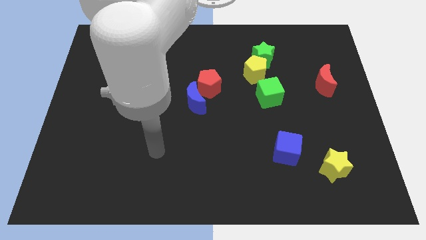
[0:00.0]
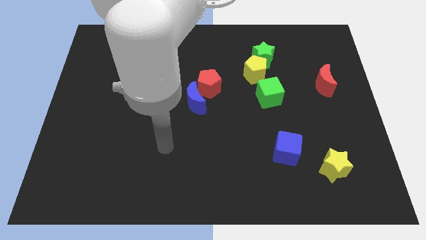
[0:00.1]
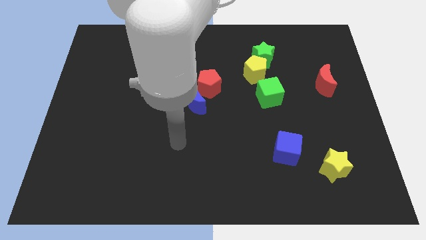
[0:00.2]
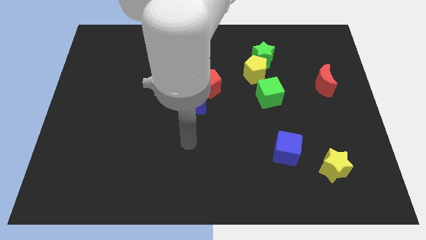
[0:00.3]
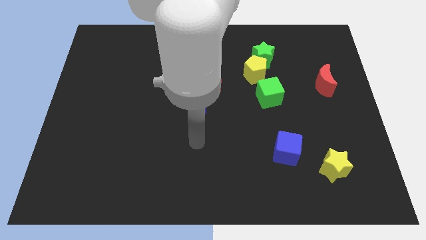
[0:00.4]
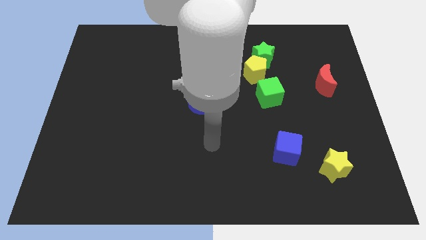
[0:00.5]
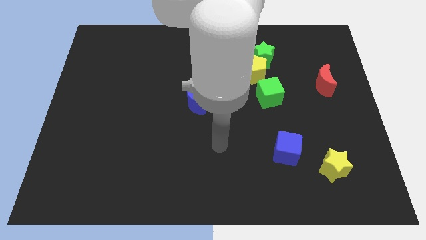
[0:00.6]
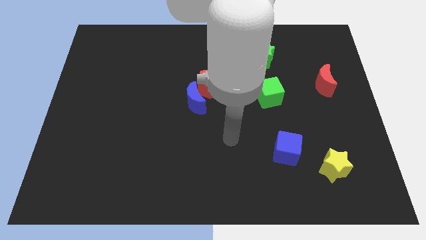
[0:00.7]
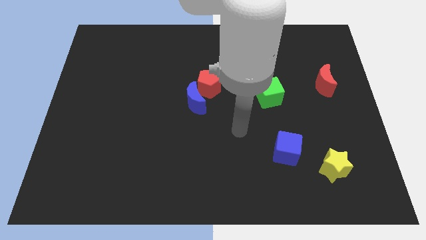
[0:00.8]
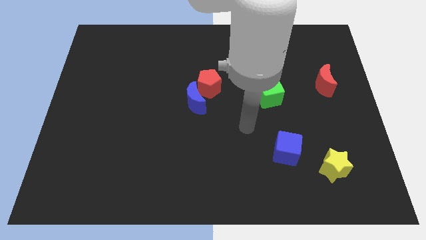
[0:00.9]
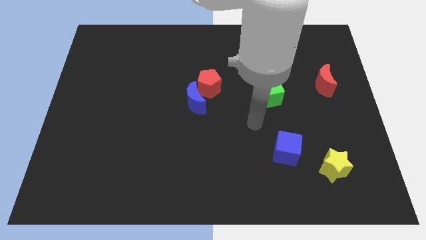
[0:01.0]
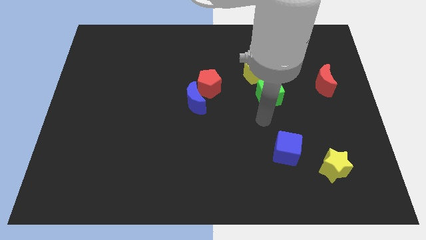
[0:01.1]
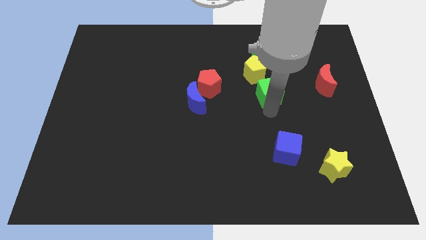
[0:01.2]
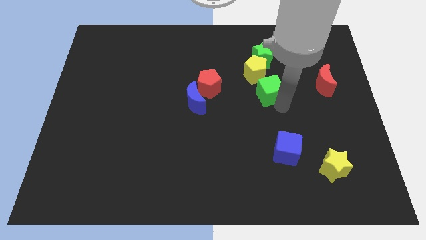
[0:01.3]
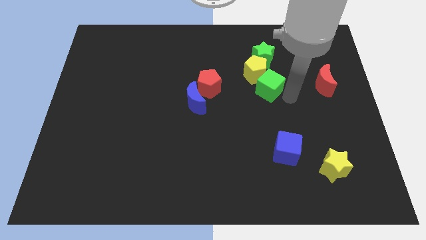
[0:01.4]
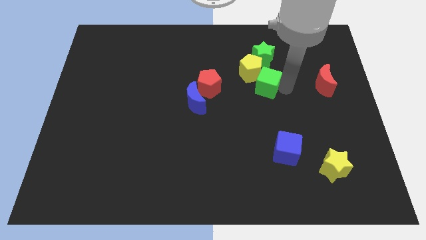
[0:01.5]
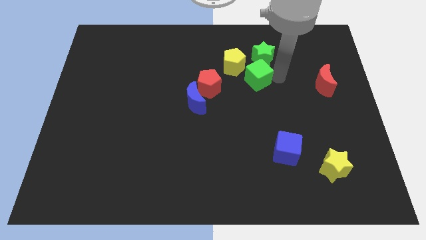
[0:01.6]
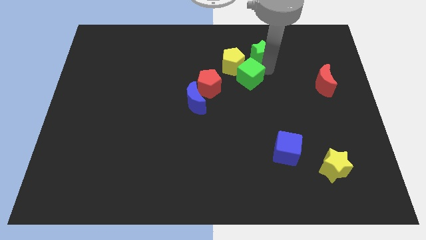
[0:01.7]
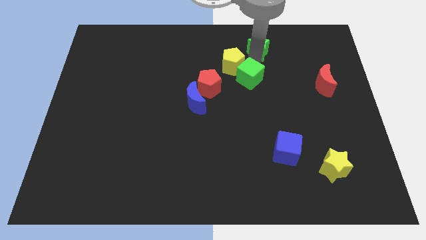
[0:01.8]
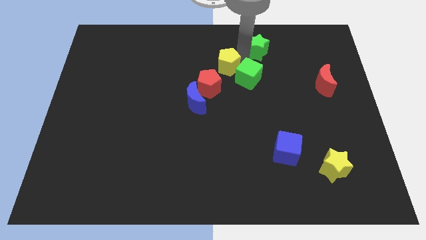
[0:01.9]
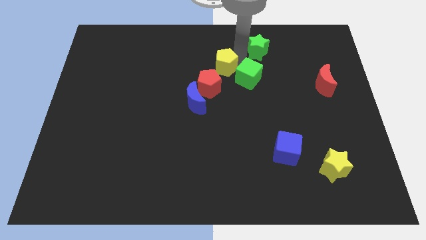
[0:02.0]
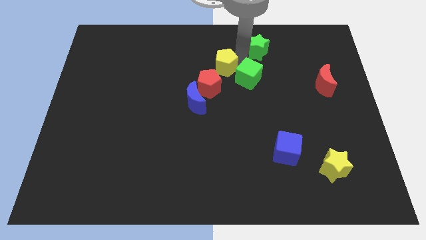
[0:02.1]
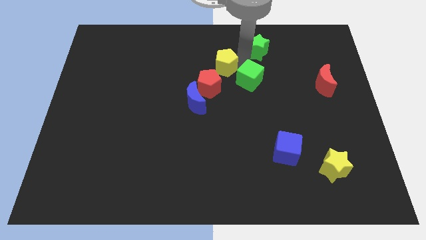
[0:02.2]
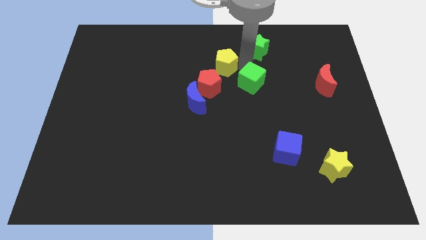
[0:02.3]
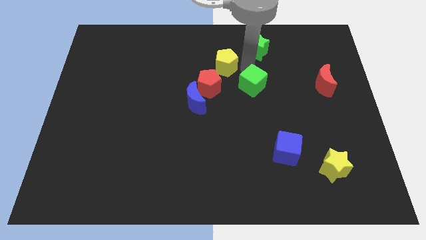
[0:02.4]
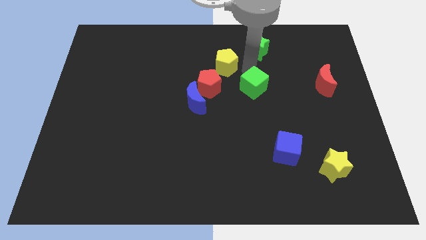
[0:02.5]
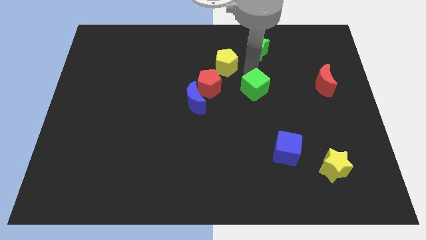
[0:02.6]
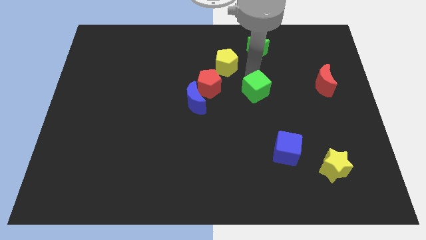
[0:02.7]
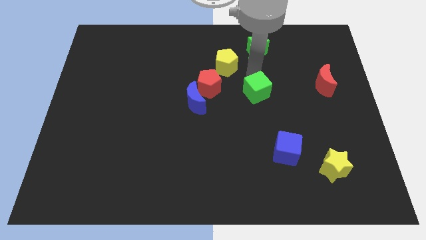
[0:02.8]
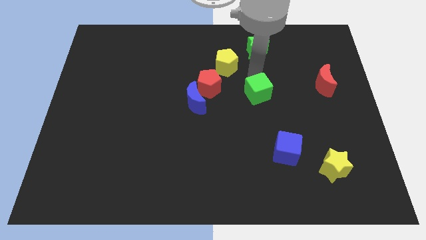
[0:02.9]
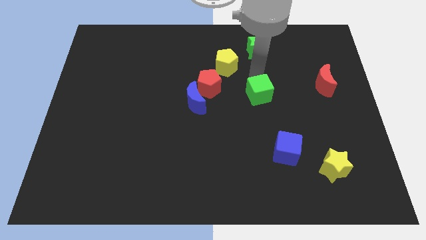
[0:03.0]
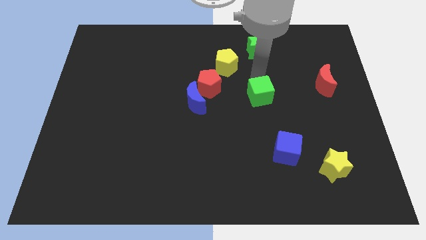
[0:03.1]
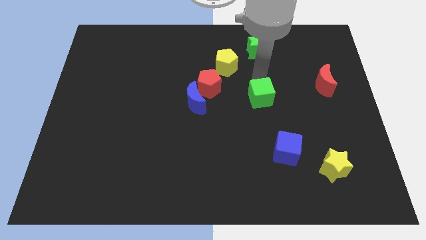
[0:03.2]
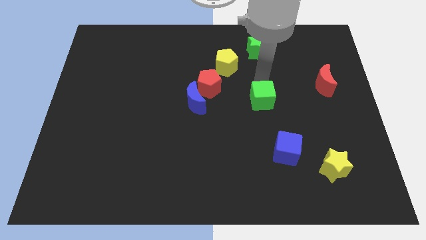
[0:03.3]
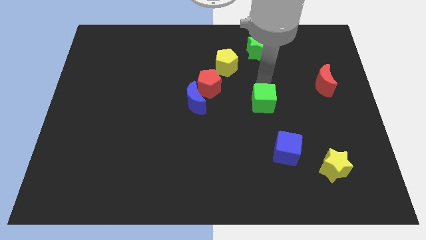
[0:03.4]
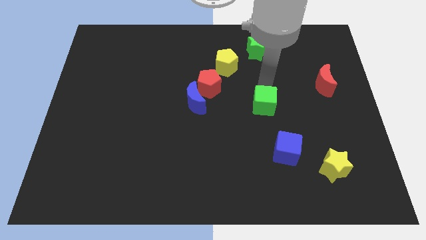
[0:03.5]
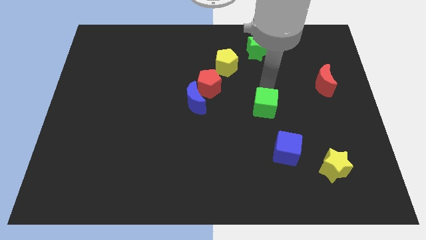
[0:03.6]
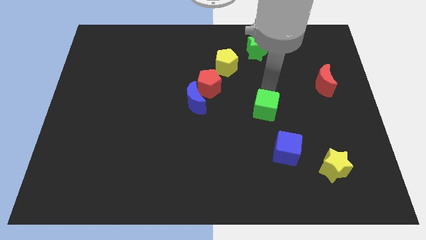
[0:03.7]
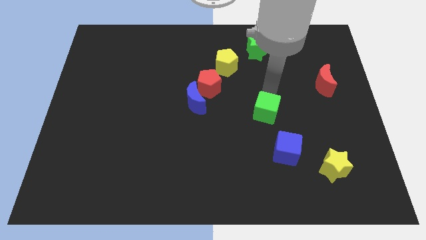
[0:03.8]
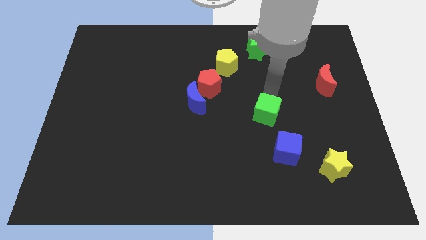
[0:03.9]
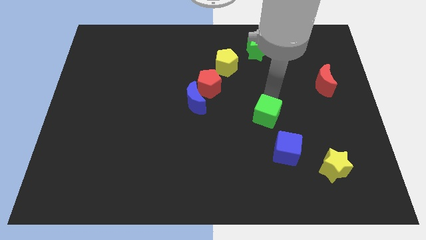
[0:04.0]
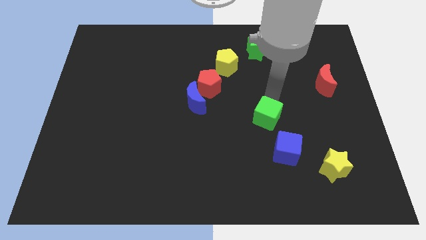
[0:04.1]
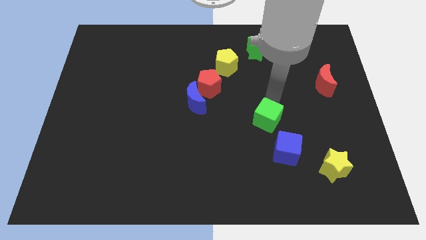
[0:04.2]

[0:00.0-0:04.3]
slide the green cube down a little

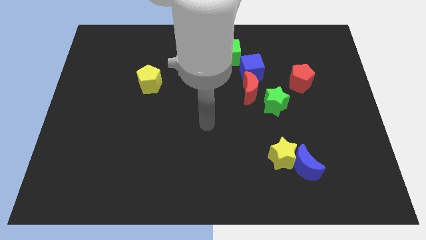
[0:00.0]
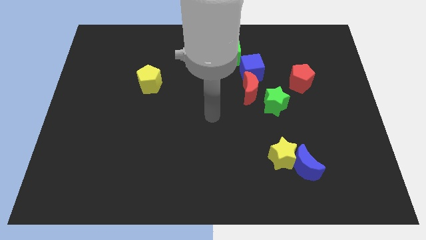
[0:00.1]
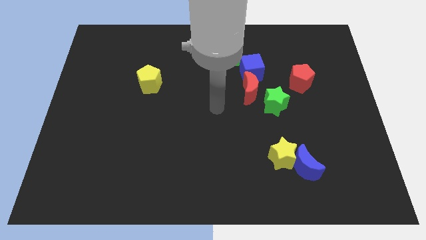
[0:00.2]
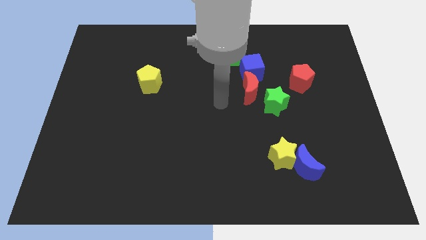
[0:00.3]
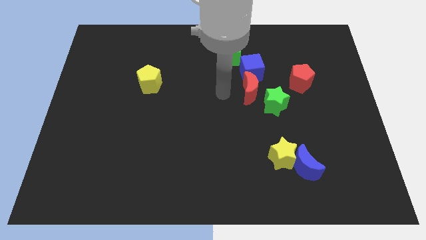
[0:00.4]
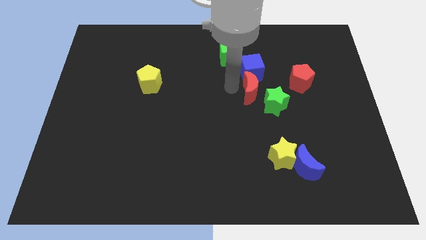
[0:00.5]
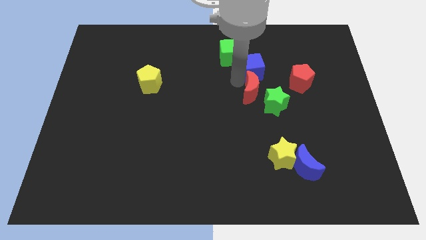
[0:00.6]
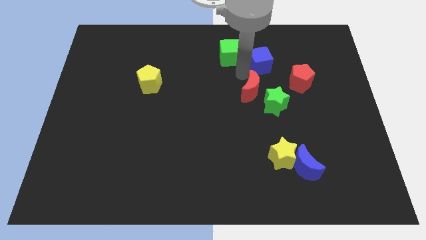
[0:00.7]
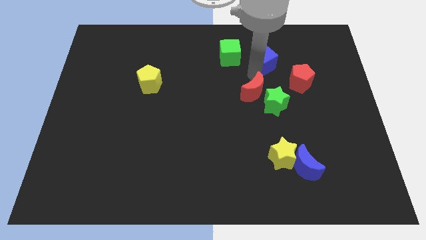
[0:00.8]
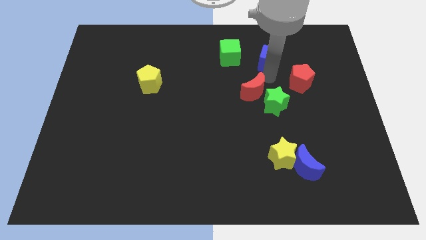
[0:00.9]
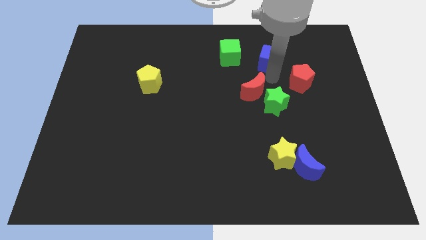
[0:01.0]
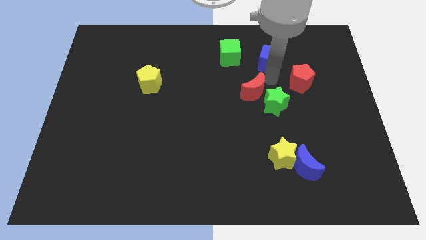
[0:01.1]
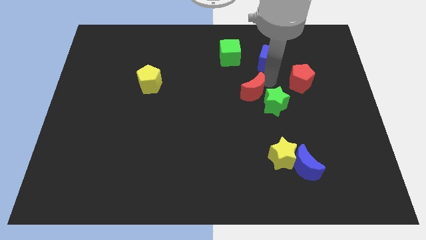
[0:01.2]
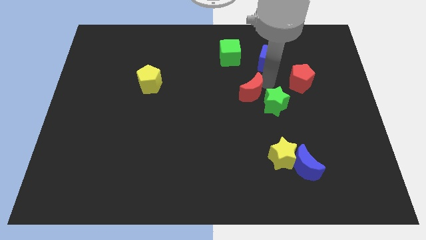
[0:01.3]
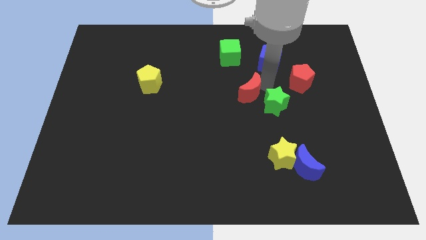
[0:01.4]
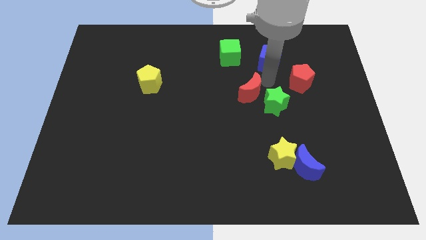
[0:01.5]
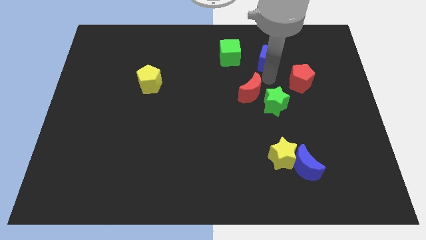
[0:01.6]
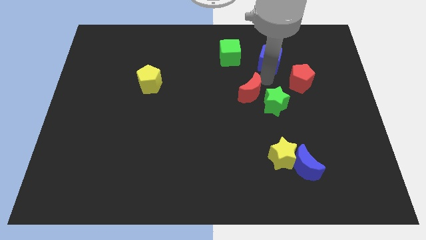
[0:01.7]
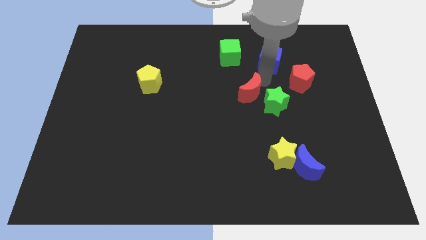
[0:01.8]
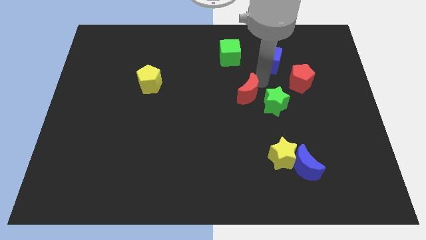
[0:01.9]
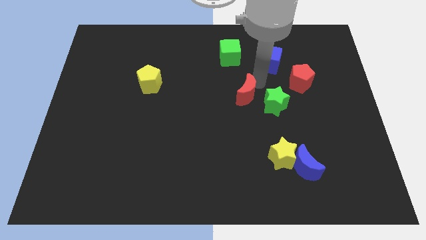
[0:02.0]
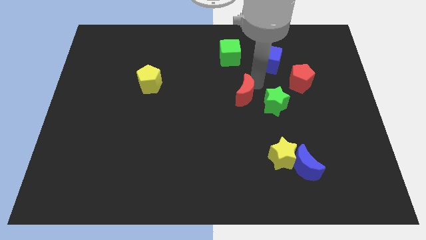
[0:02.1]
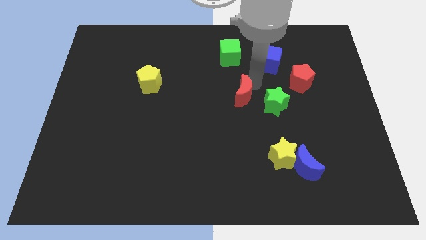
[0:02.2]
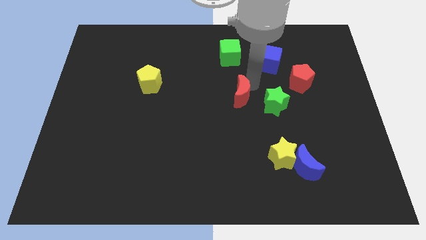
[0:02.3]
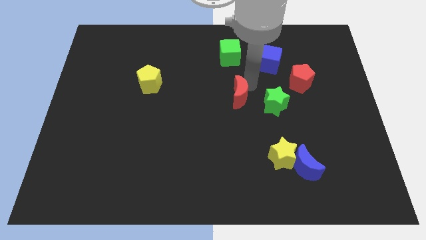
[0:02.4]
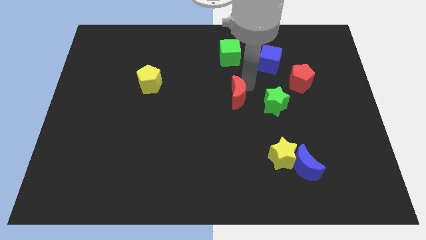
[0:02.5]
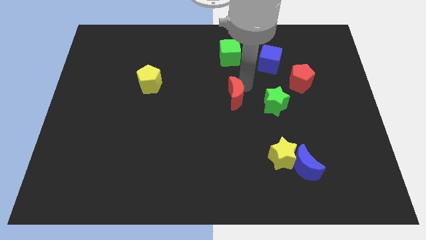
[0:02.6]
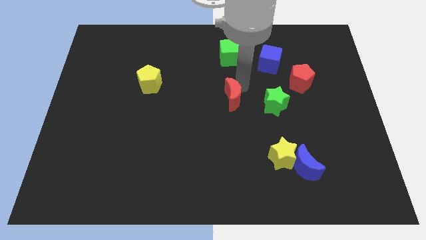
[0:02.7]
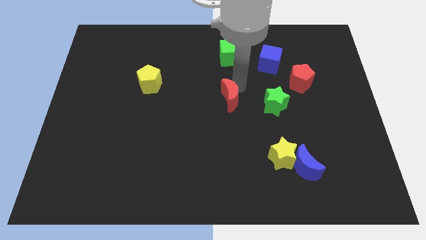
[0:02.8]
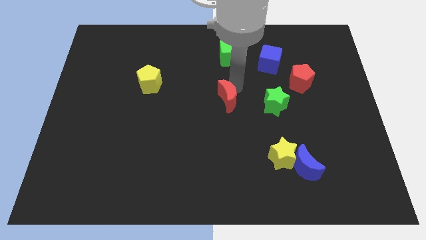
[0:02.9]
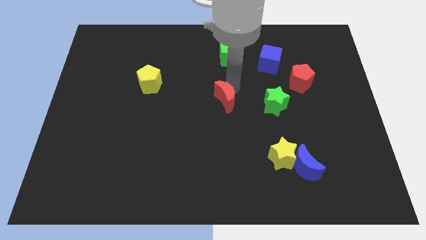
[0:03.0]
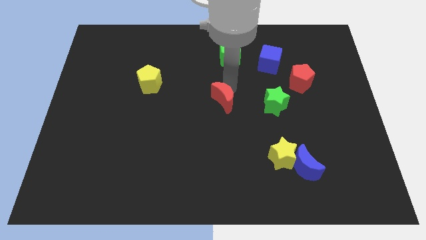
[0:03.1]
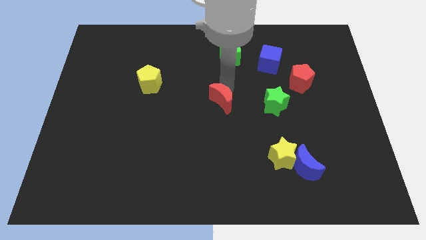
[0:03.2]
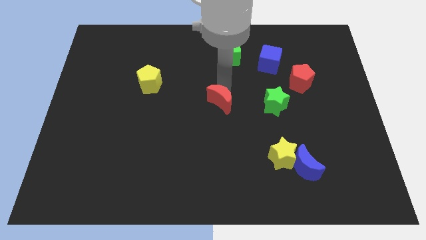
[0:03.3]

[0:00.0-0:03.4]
move the red moon downwards and left diagonally a little

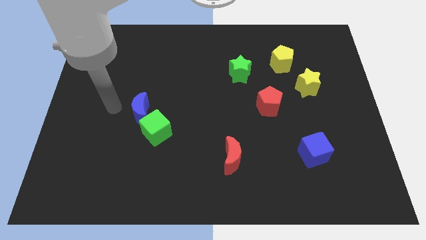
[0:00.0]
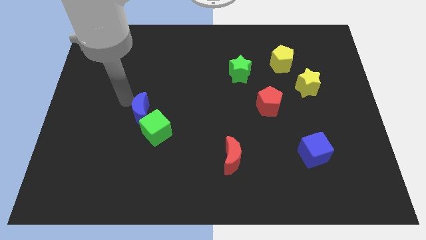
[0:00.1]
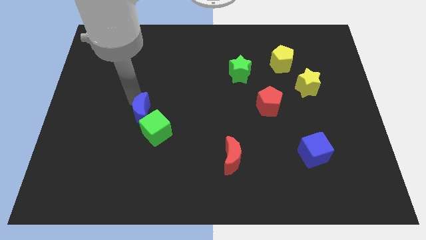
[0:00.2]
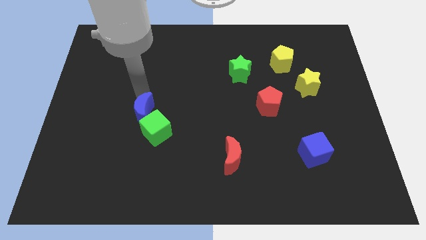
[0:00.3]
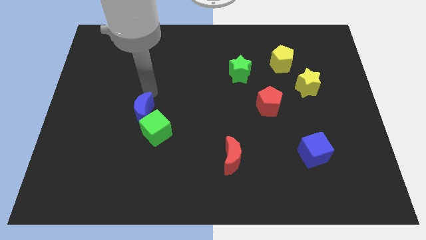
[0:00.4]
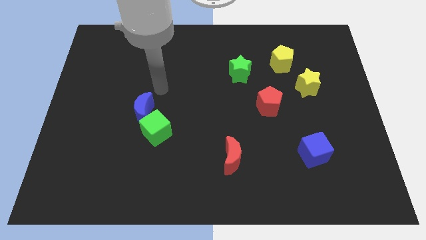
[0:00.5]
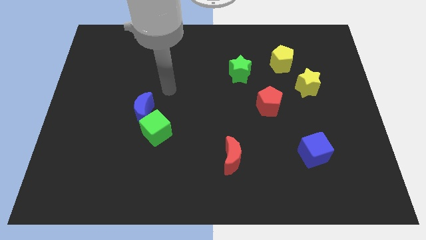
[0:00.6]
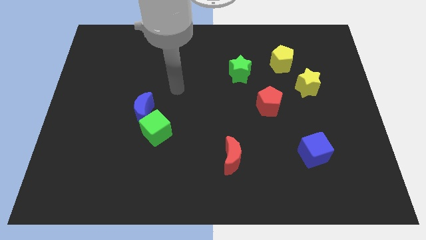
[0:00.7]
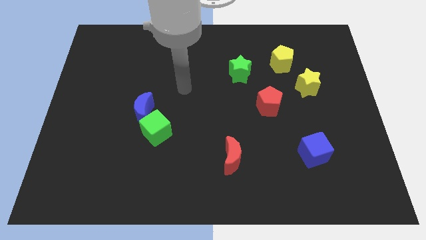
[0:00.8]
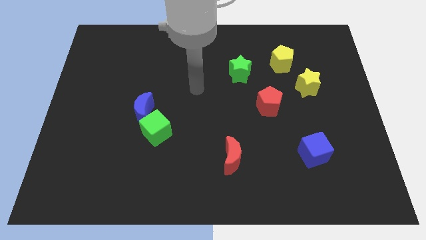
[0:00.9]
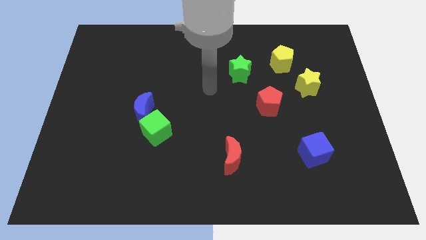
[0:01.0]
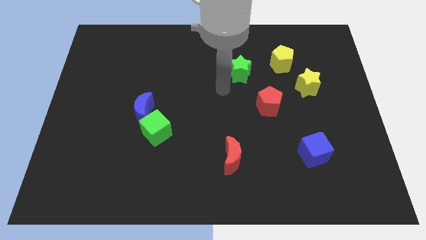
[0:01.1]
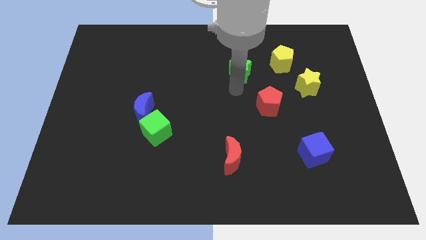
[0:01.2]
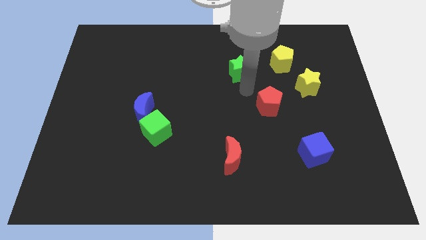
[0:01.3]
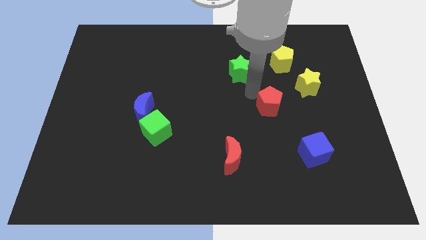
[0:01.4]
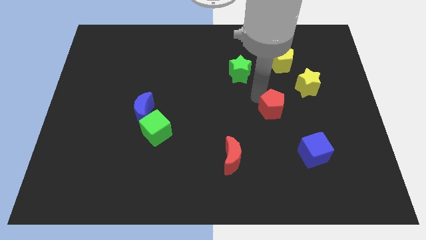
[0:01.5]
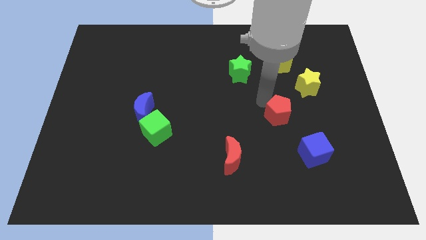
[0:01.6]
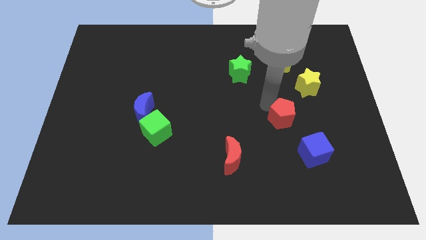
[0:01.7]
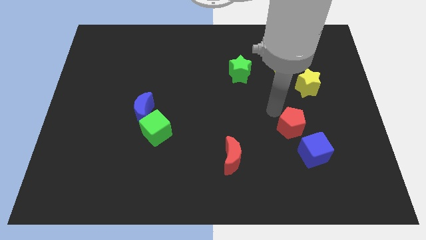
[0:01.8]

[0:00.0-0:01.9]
slightly slide the red pentagon downwards and to the right diagonally
